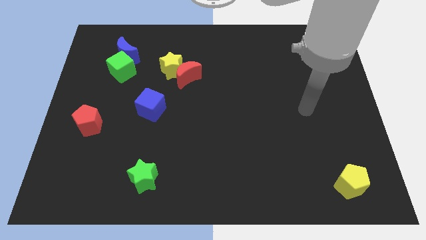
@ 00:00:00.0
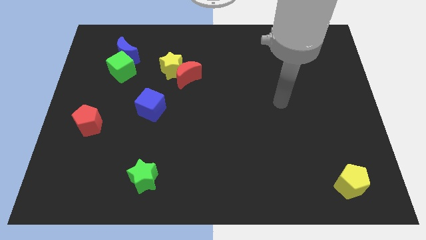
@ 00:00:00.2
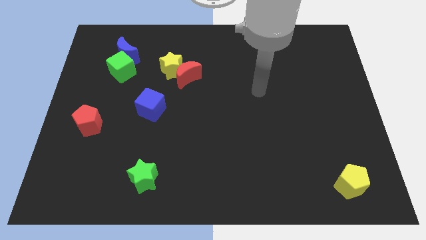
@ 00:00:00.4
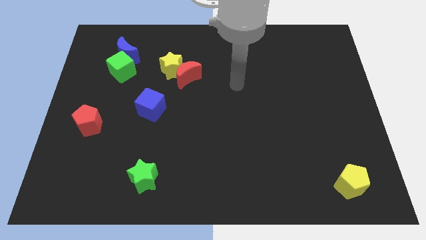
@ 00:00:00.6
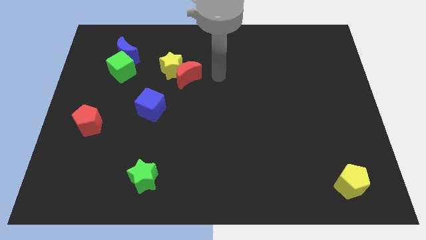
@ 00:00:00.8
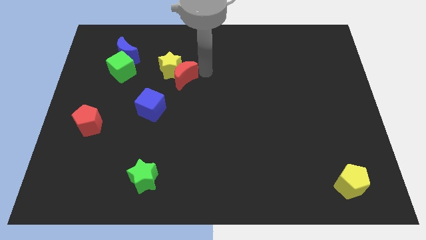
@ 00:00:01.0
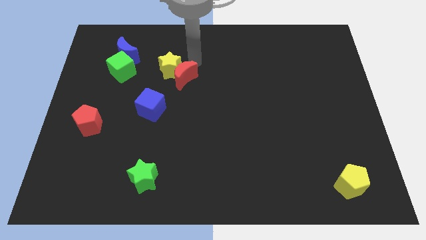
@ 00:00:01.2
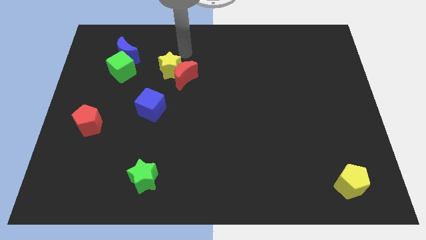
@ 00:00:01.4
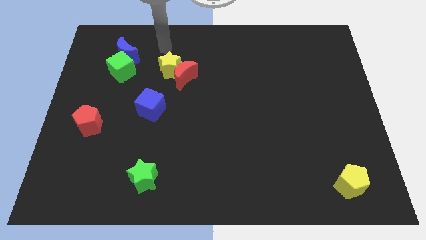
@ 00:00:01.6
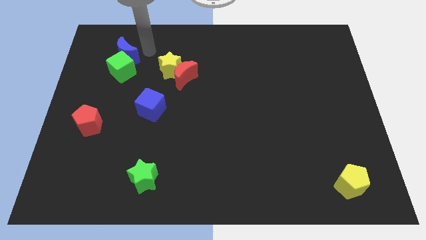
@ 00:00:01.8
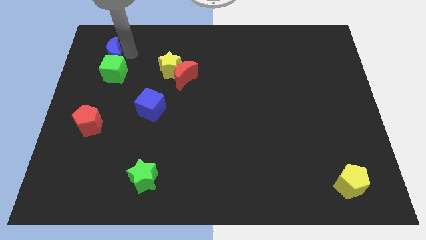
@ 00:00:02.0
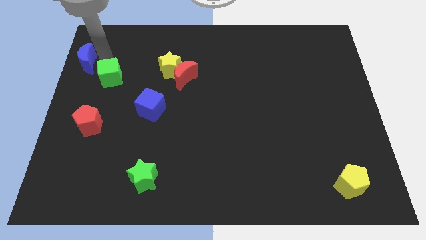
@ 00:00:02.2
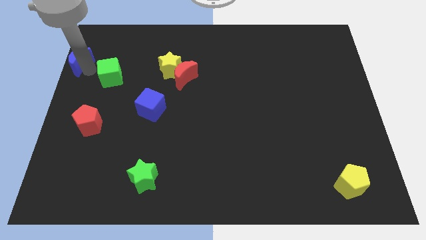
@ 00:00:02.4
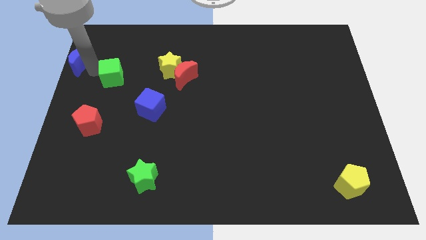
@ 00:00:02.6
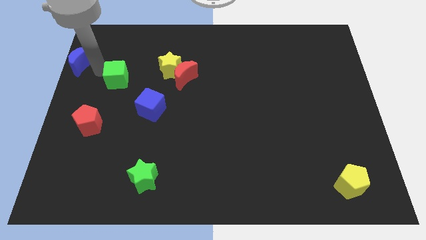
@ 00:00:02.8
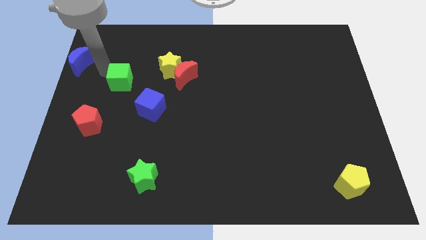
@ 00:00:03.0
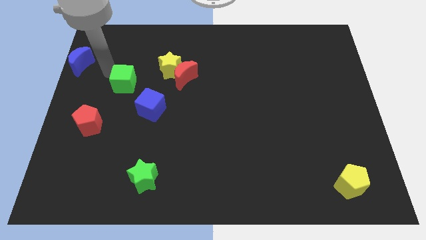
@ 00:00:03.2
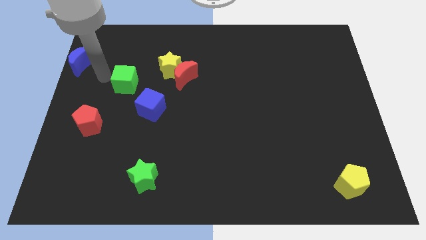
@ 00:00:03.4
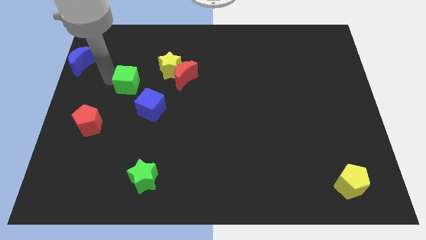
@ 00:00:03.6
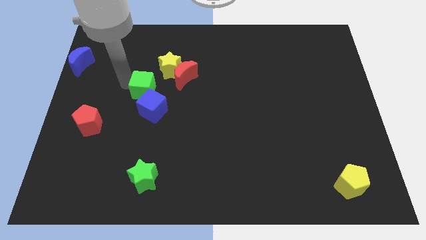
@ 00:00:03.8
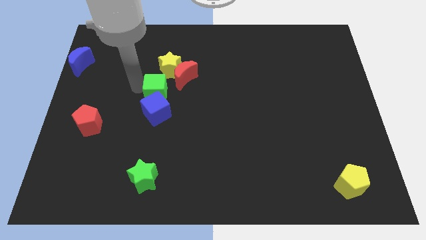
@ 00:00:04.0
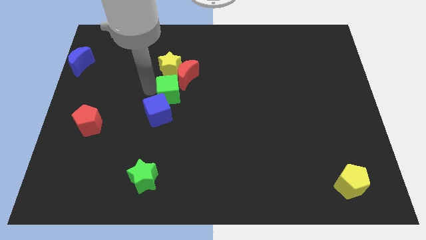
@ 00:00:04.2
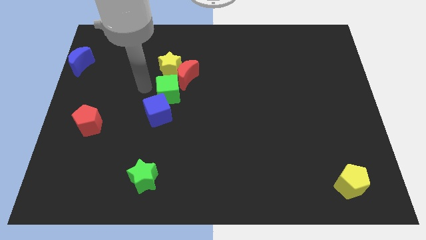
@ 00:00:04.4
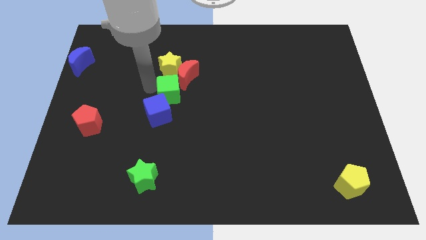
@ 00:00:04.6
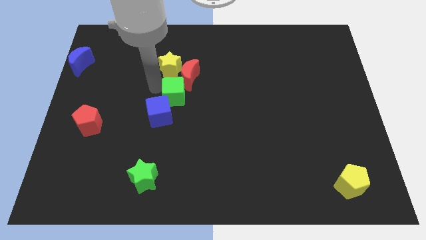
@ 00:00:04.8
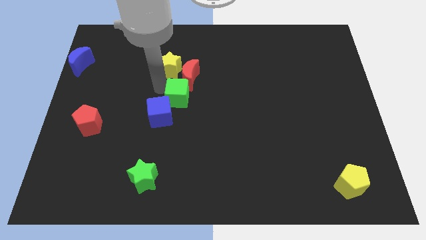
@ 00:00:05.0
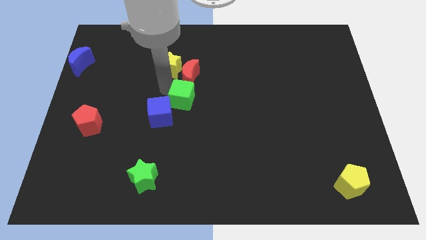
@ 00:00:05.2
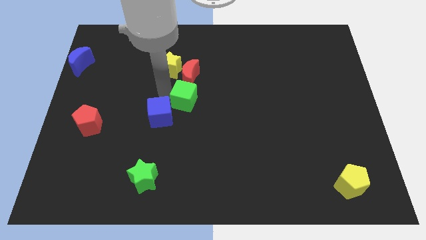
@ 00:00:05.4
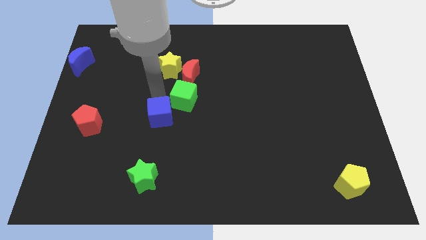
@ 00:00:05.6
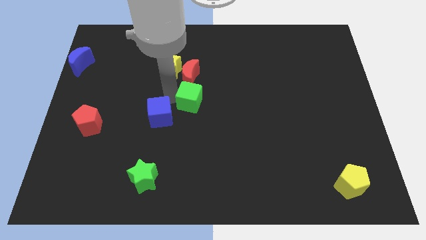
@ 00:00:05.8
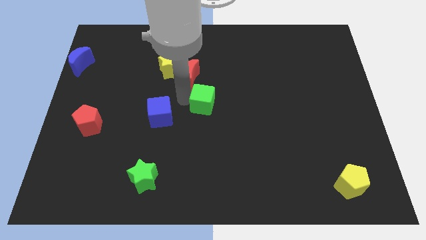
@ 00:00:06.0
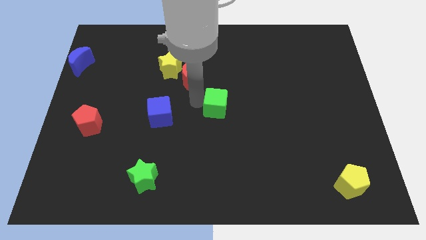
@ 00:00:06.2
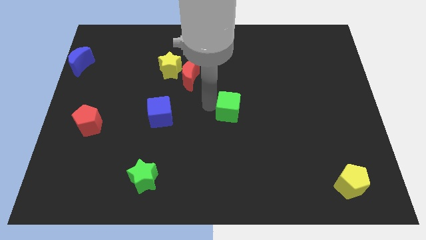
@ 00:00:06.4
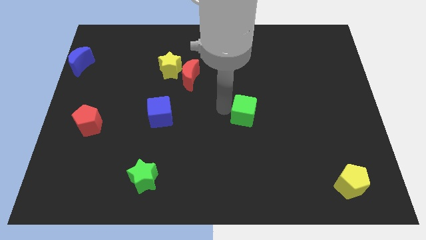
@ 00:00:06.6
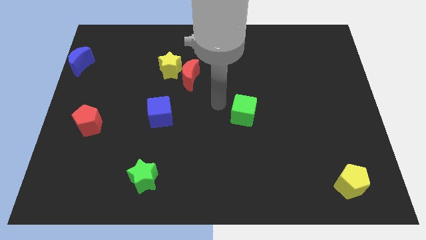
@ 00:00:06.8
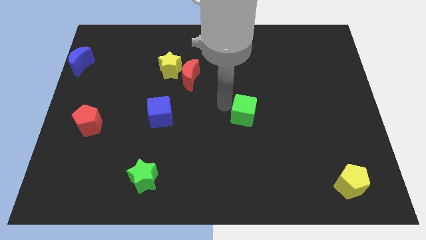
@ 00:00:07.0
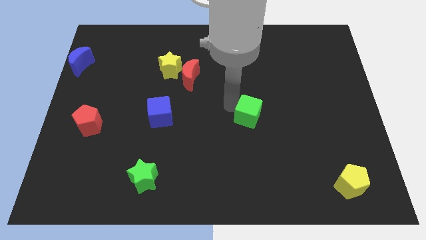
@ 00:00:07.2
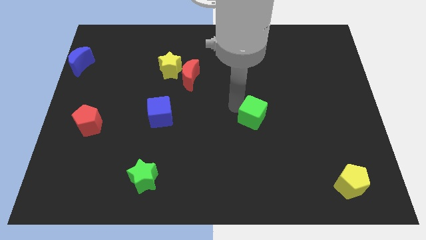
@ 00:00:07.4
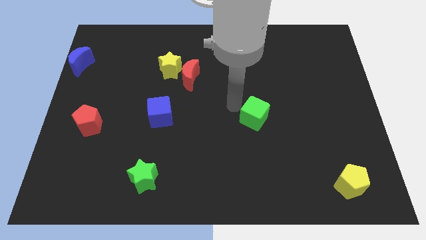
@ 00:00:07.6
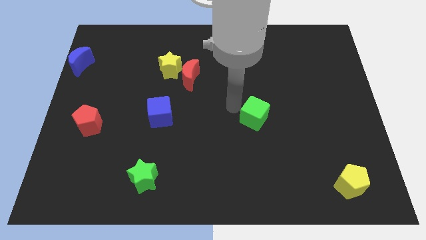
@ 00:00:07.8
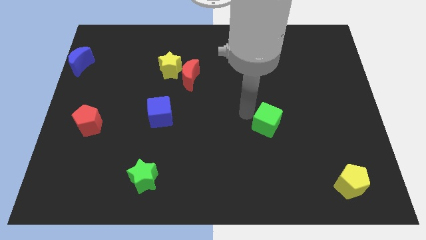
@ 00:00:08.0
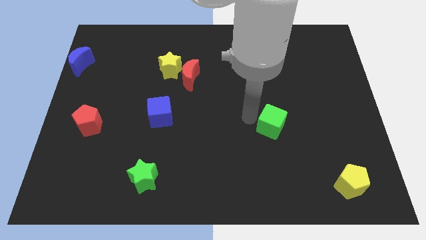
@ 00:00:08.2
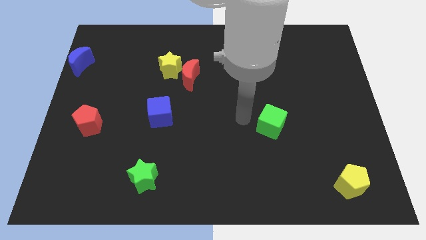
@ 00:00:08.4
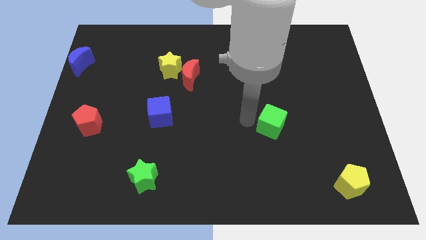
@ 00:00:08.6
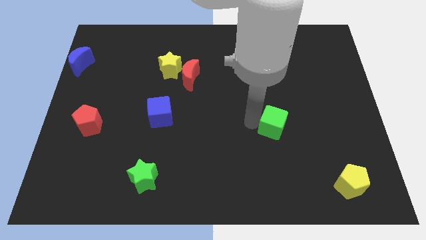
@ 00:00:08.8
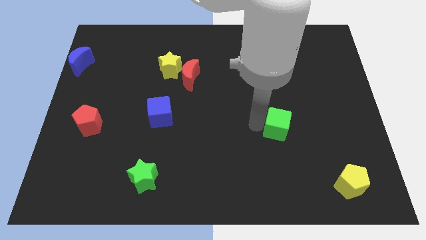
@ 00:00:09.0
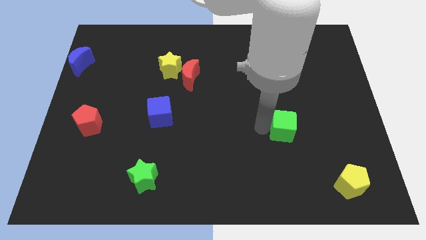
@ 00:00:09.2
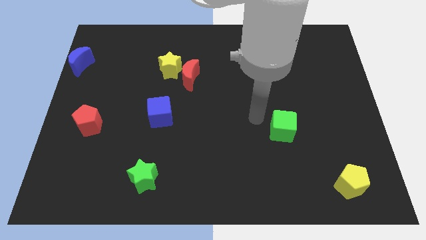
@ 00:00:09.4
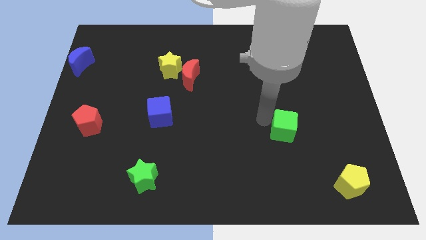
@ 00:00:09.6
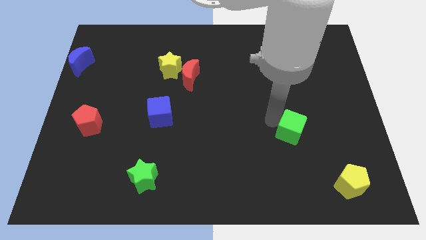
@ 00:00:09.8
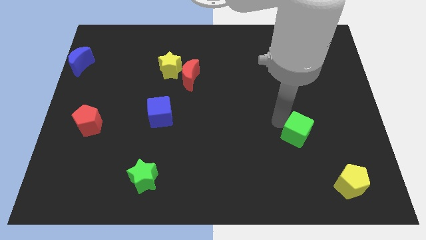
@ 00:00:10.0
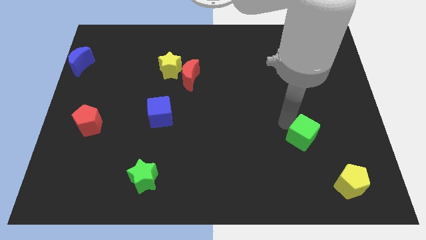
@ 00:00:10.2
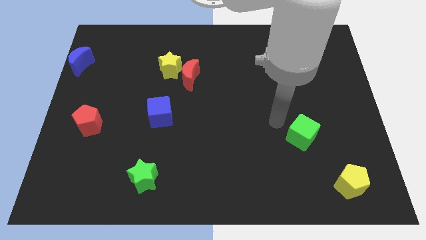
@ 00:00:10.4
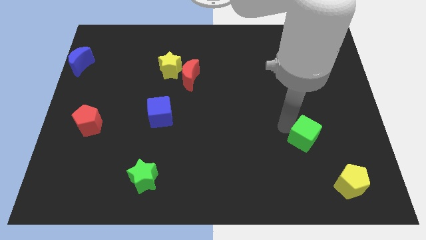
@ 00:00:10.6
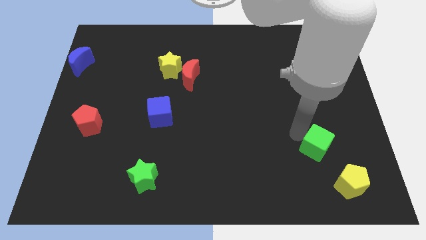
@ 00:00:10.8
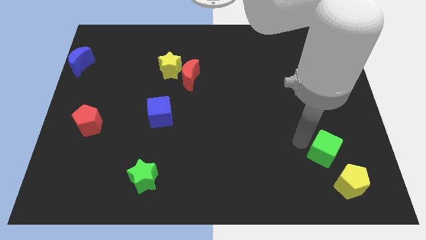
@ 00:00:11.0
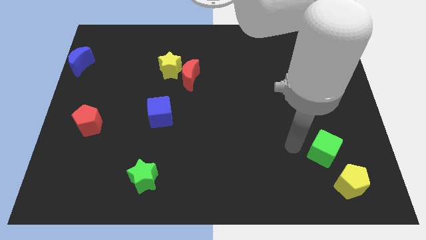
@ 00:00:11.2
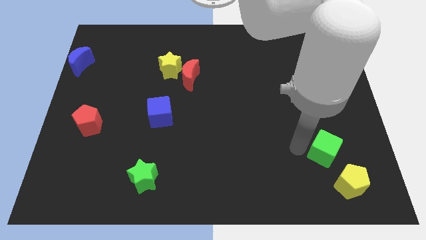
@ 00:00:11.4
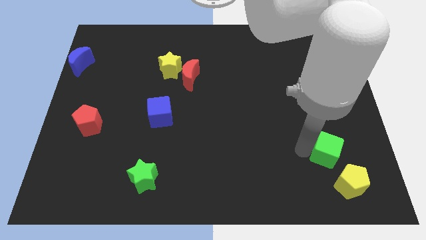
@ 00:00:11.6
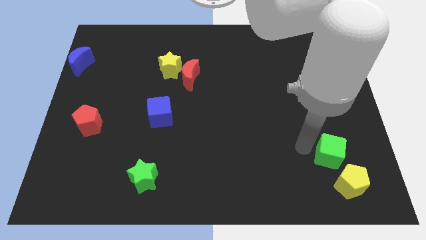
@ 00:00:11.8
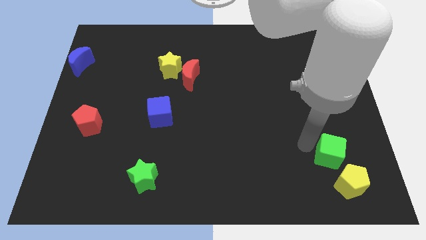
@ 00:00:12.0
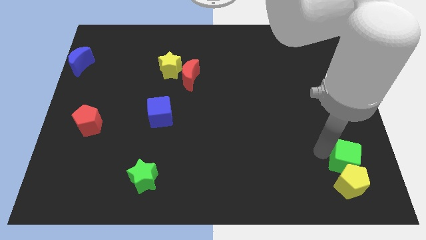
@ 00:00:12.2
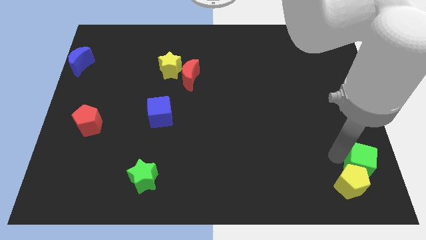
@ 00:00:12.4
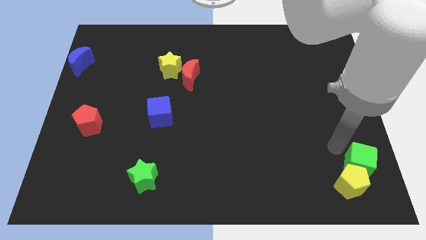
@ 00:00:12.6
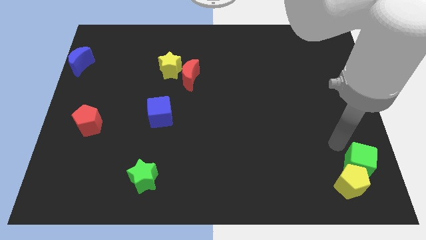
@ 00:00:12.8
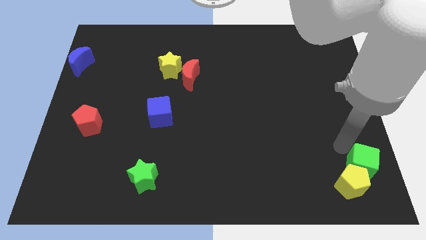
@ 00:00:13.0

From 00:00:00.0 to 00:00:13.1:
slide the green cube to the bottom right corner
